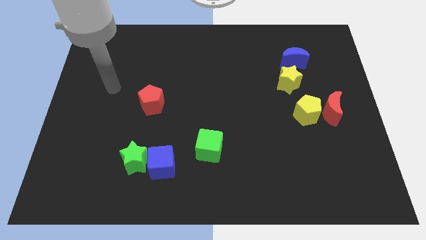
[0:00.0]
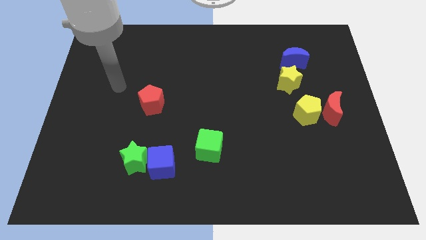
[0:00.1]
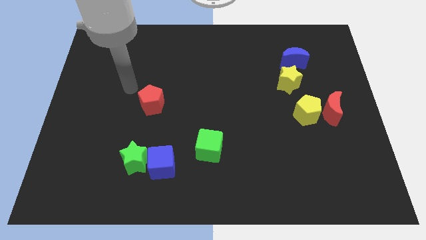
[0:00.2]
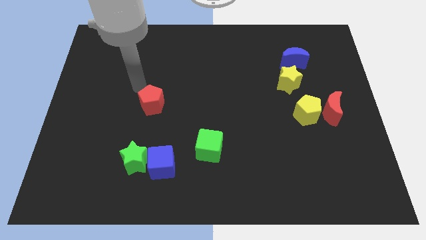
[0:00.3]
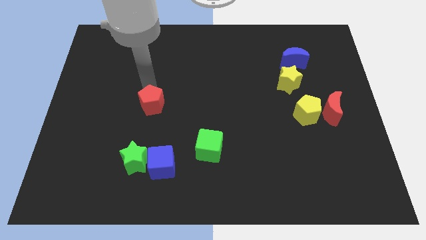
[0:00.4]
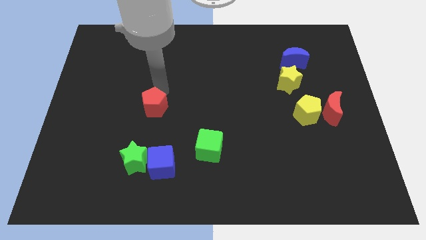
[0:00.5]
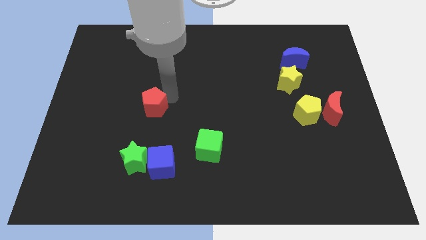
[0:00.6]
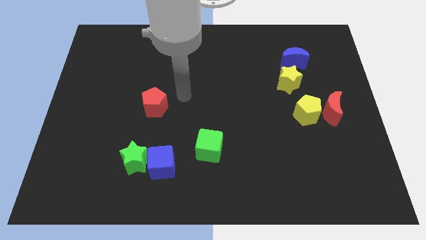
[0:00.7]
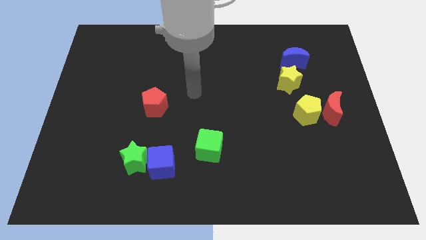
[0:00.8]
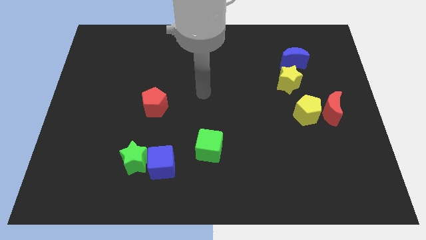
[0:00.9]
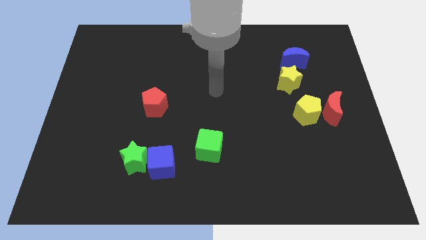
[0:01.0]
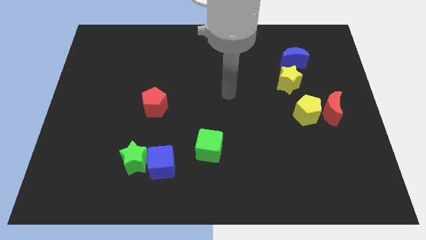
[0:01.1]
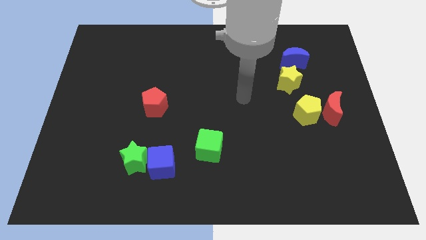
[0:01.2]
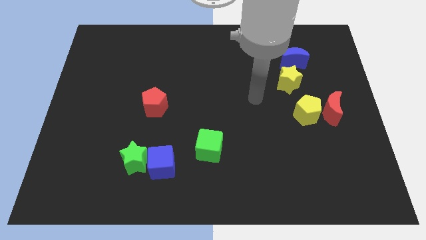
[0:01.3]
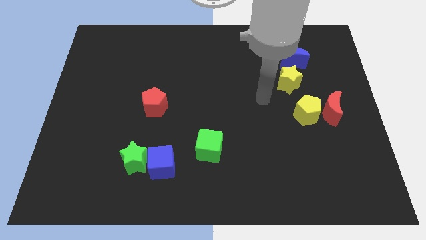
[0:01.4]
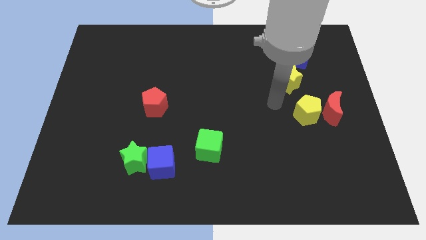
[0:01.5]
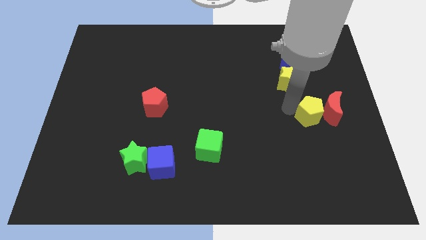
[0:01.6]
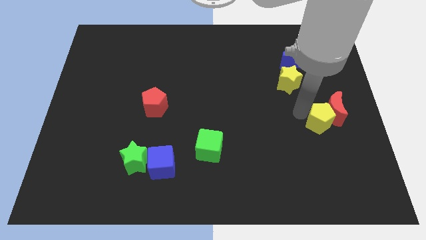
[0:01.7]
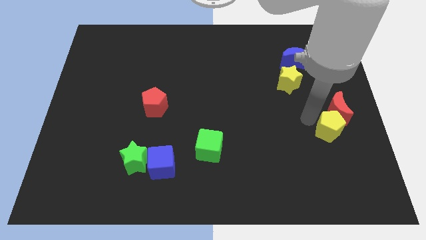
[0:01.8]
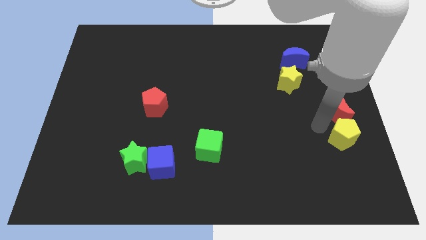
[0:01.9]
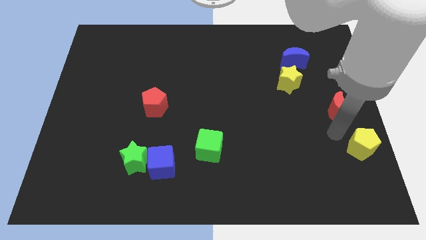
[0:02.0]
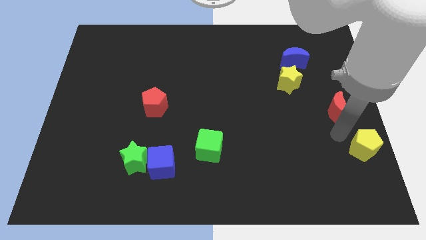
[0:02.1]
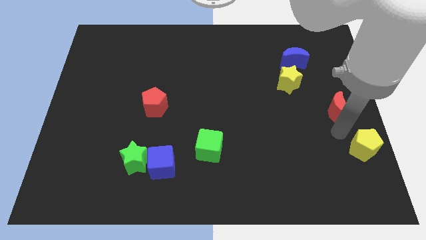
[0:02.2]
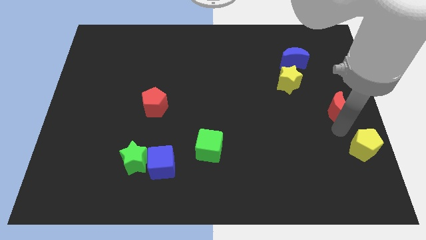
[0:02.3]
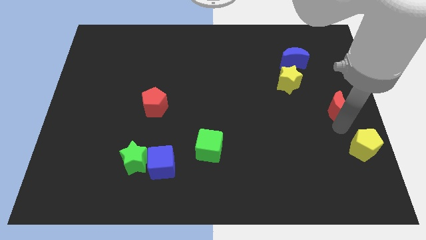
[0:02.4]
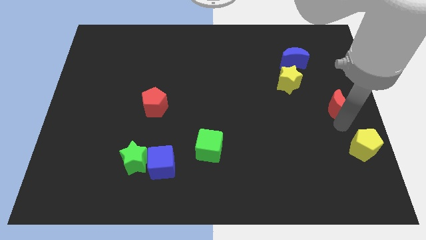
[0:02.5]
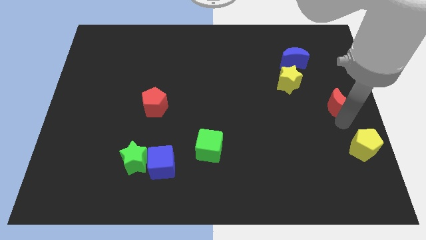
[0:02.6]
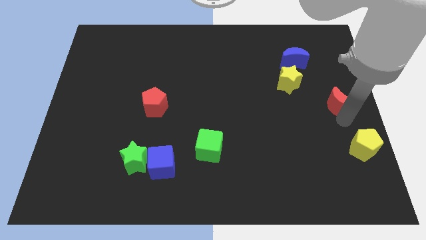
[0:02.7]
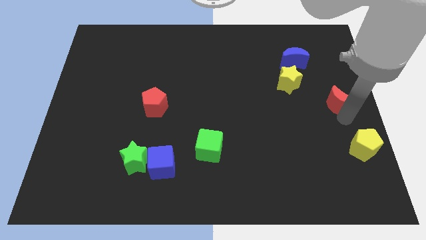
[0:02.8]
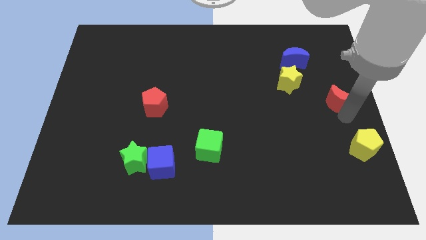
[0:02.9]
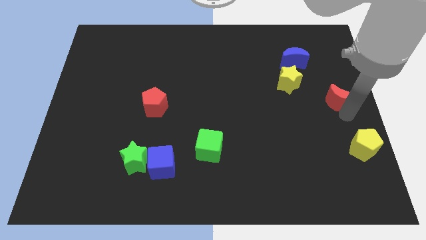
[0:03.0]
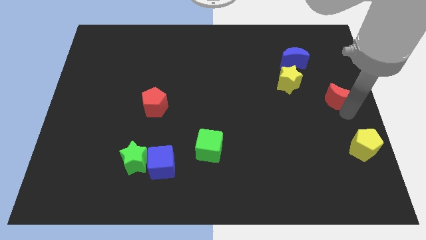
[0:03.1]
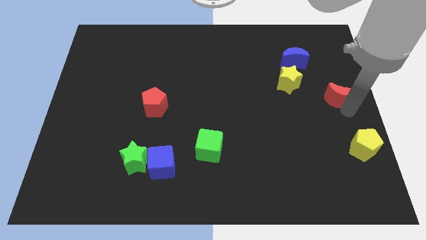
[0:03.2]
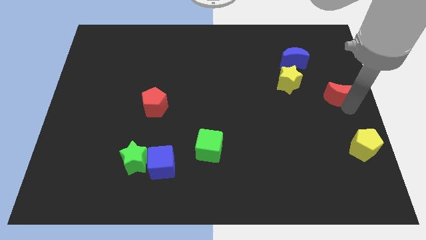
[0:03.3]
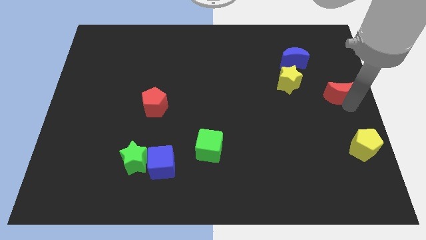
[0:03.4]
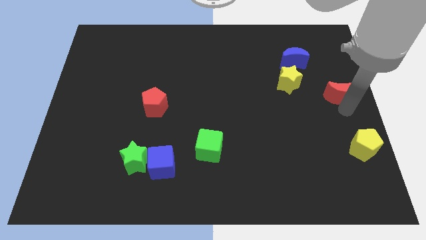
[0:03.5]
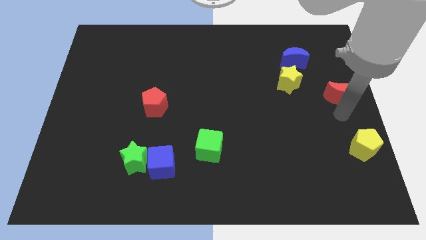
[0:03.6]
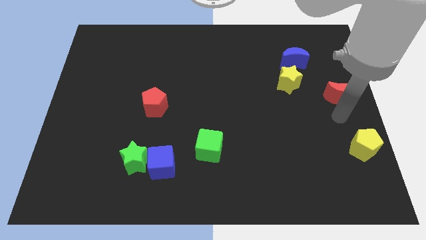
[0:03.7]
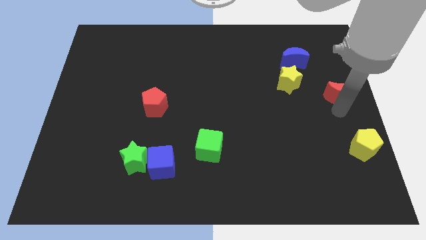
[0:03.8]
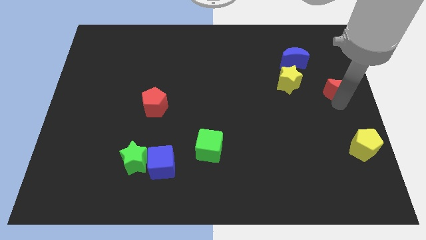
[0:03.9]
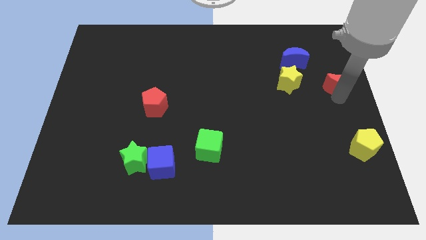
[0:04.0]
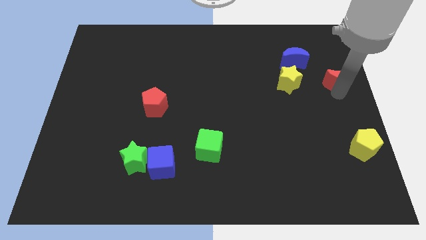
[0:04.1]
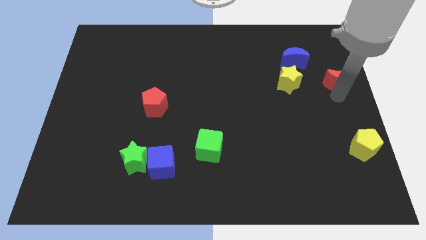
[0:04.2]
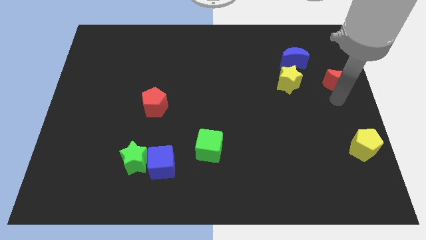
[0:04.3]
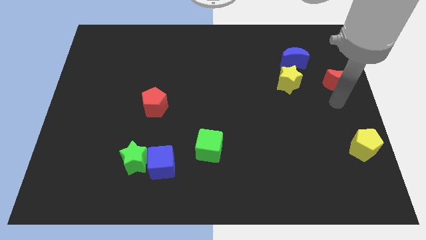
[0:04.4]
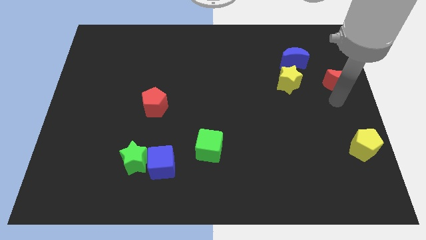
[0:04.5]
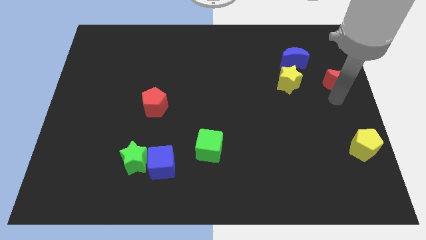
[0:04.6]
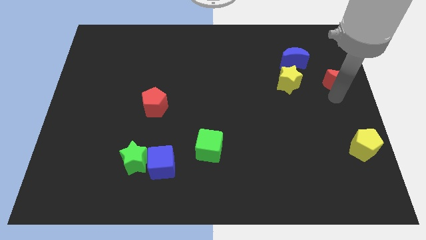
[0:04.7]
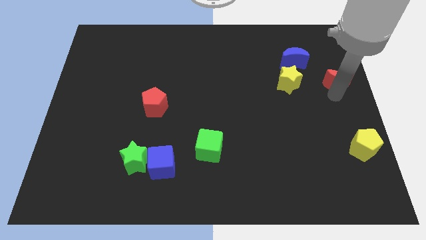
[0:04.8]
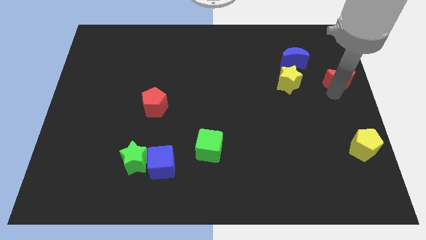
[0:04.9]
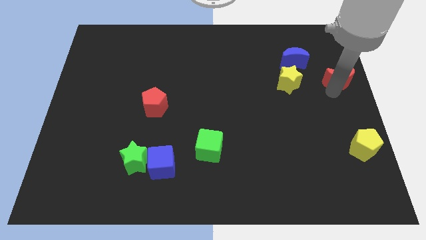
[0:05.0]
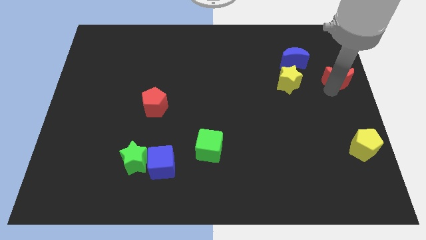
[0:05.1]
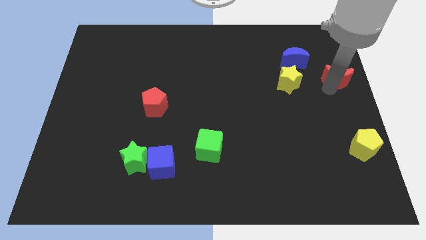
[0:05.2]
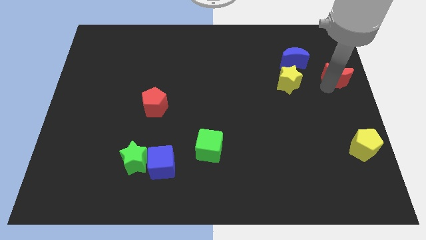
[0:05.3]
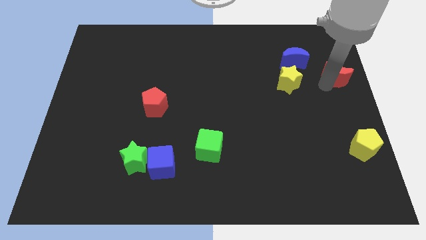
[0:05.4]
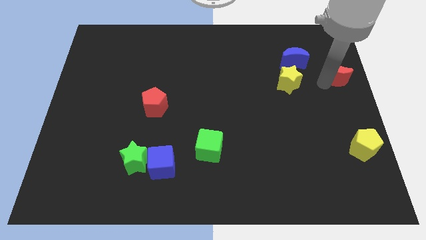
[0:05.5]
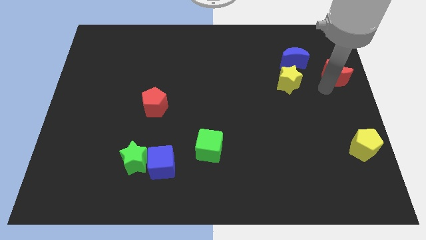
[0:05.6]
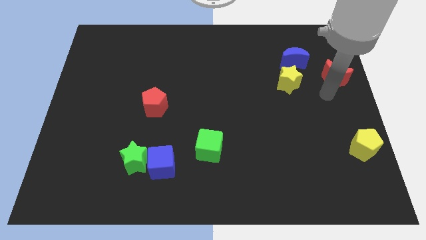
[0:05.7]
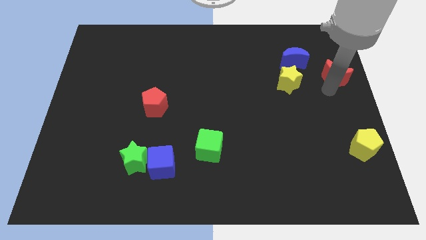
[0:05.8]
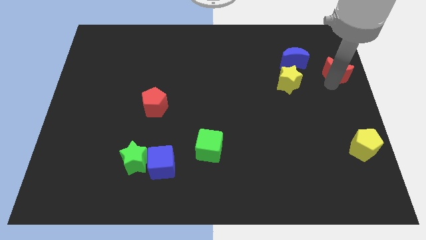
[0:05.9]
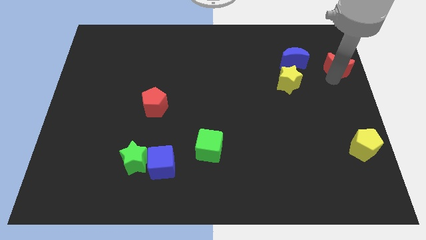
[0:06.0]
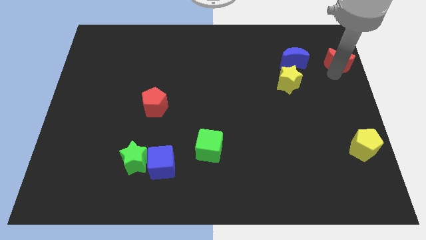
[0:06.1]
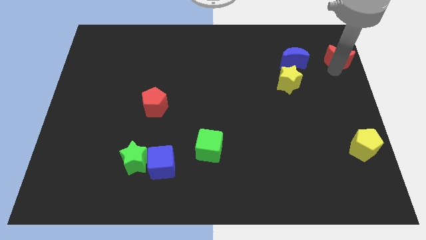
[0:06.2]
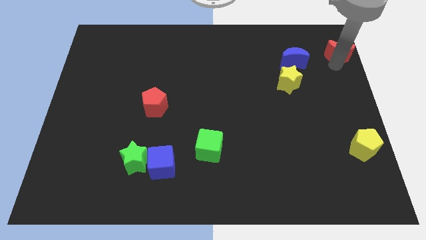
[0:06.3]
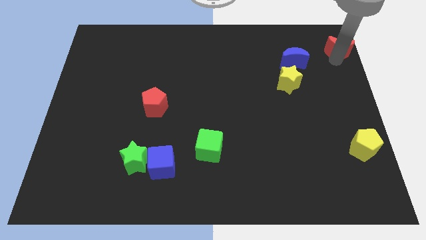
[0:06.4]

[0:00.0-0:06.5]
push the red moon to the top right of the board
